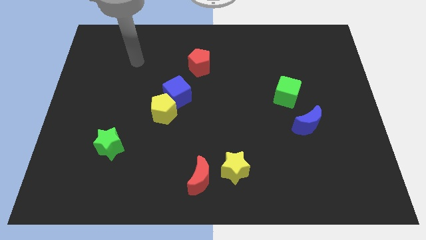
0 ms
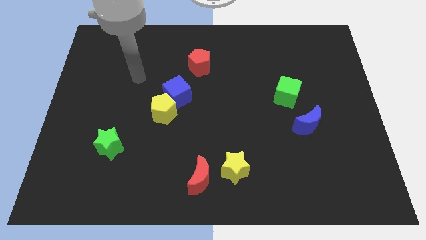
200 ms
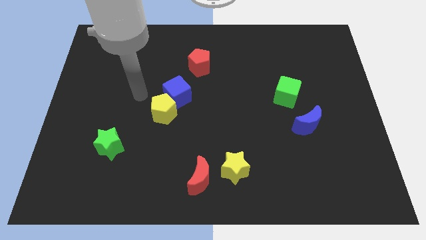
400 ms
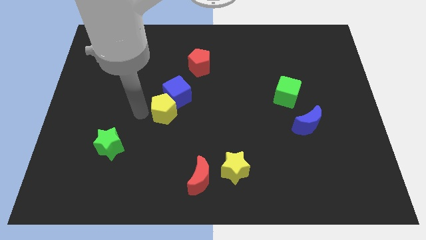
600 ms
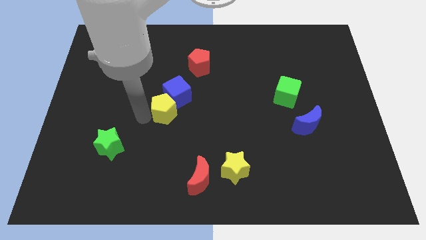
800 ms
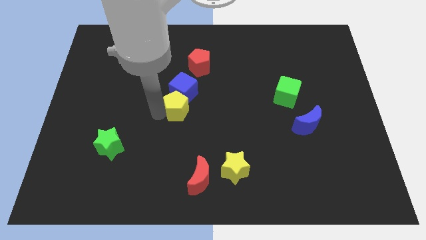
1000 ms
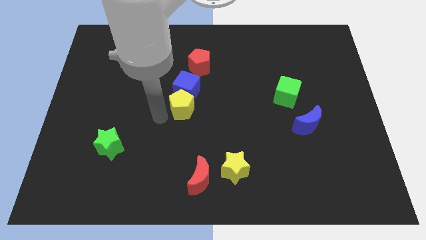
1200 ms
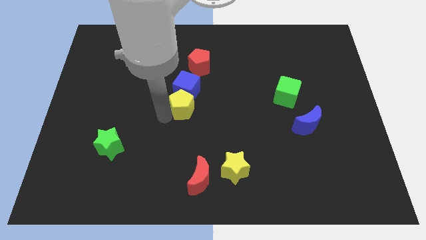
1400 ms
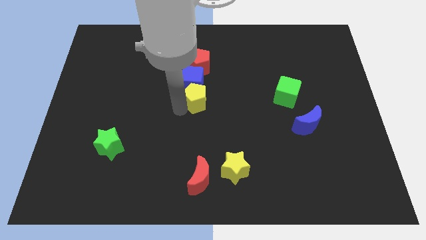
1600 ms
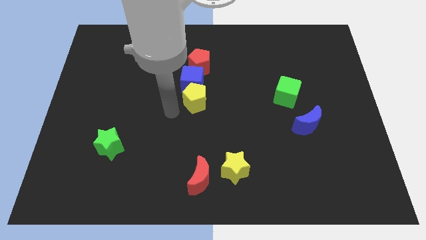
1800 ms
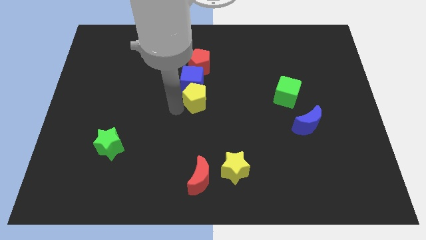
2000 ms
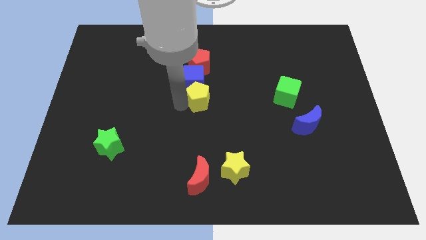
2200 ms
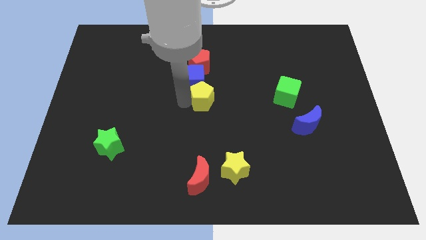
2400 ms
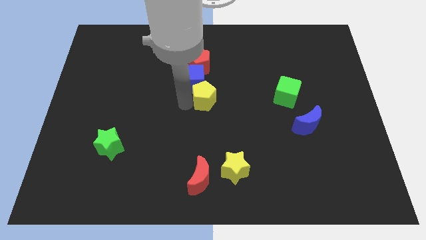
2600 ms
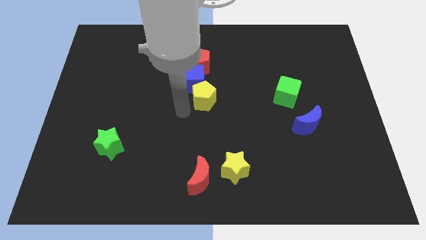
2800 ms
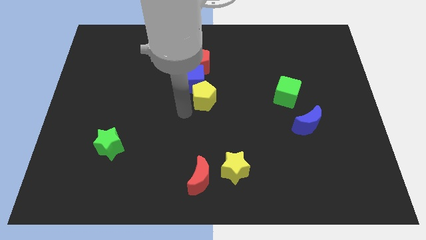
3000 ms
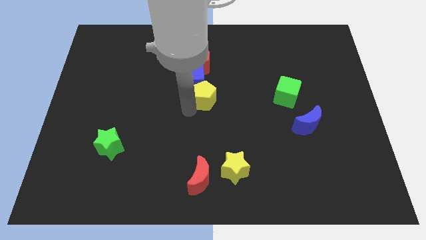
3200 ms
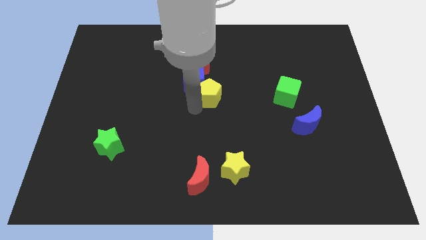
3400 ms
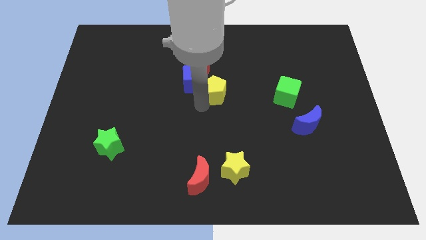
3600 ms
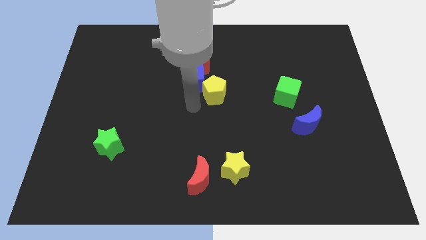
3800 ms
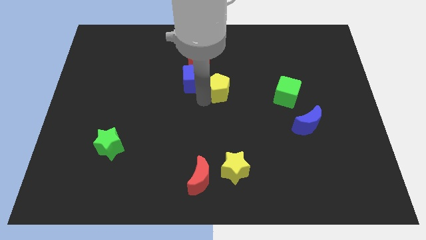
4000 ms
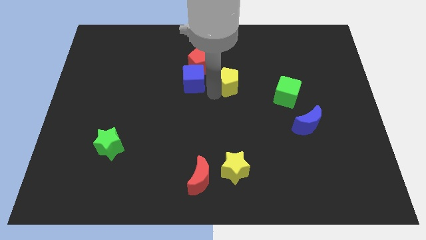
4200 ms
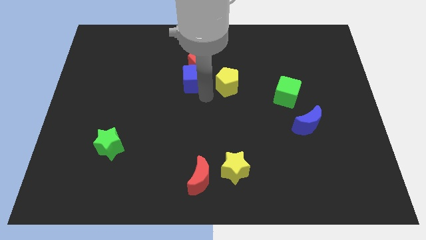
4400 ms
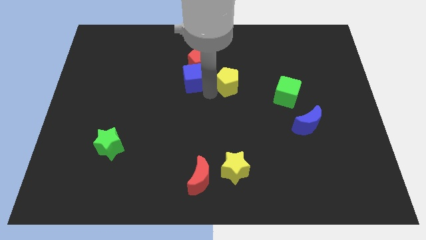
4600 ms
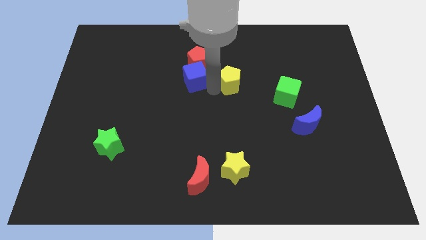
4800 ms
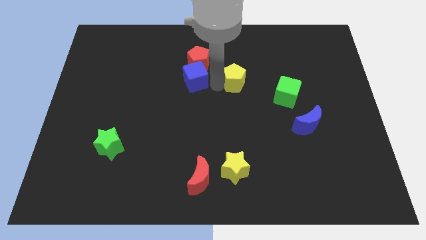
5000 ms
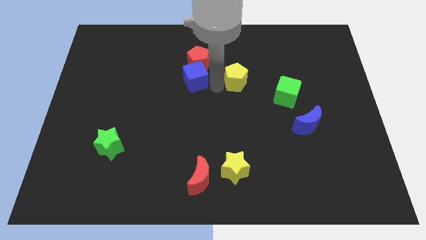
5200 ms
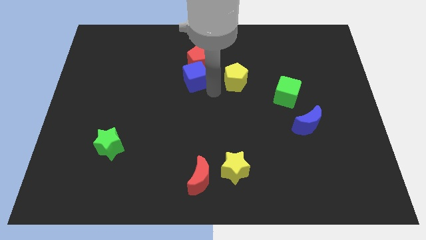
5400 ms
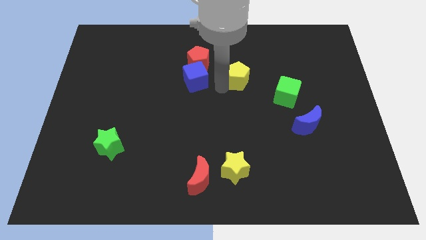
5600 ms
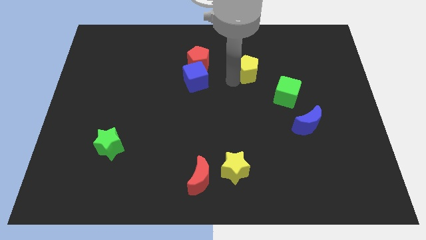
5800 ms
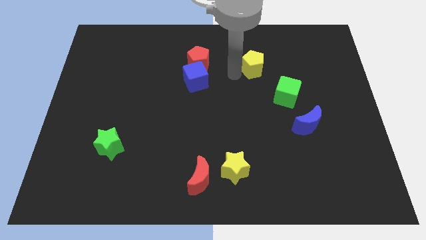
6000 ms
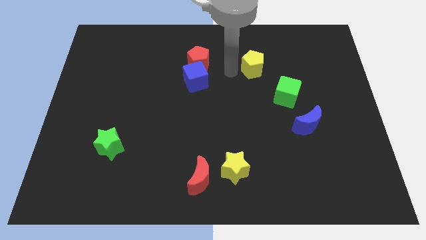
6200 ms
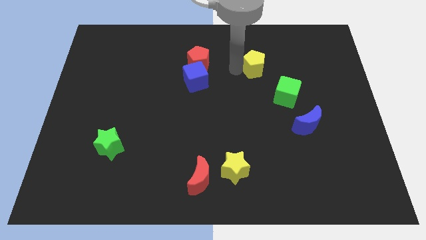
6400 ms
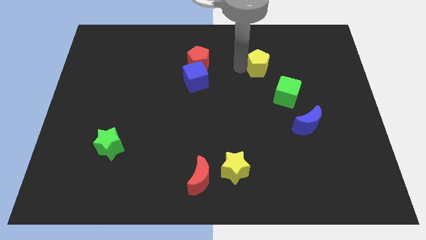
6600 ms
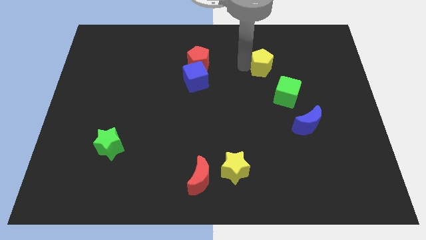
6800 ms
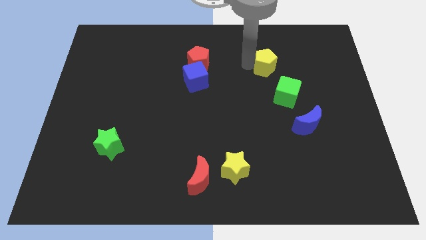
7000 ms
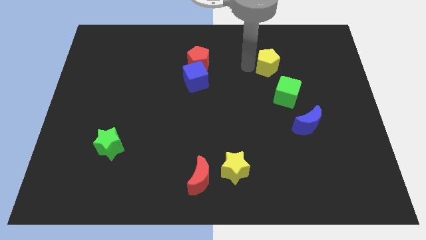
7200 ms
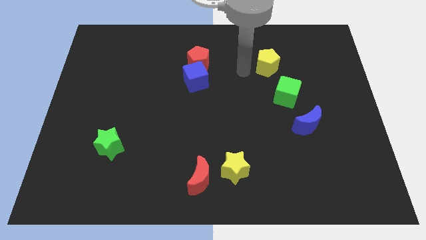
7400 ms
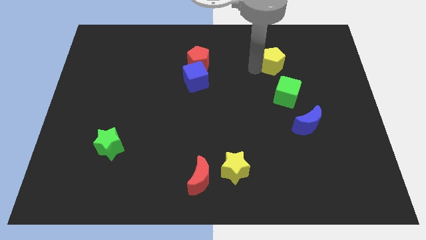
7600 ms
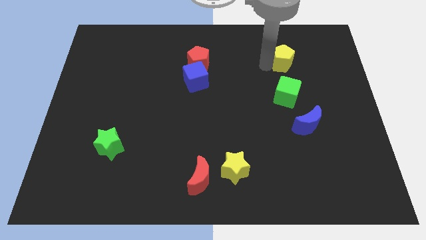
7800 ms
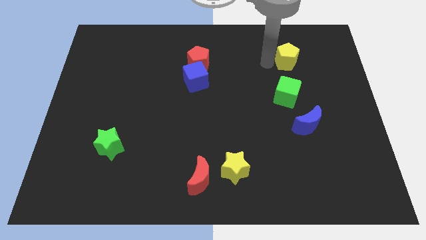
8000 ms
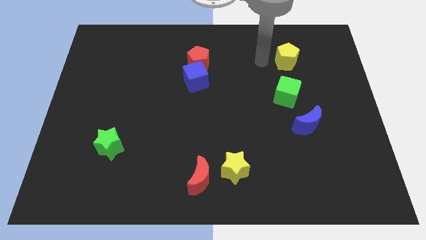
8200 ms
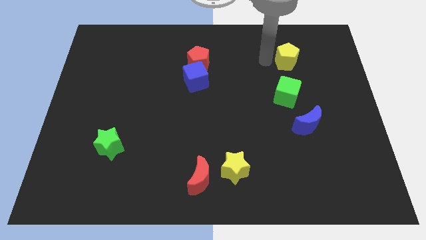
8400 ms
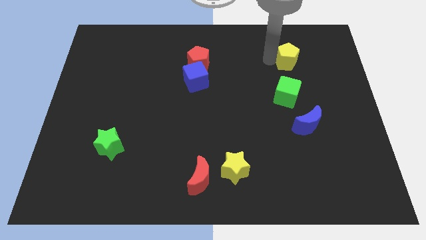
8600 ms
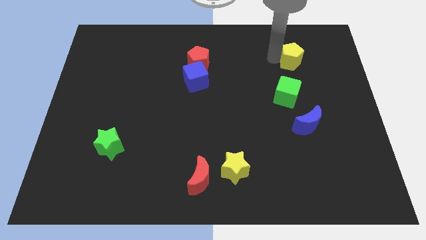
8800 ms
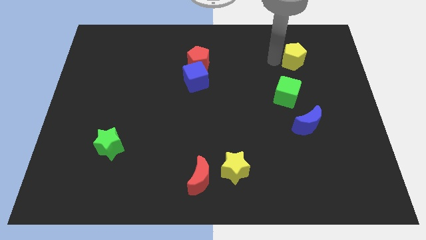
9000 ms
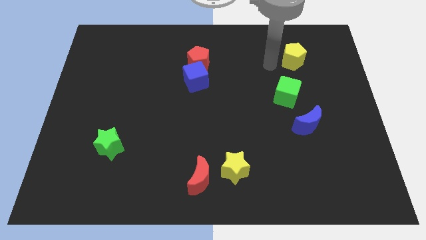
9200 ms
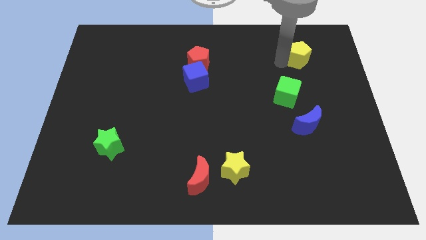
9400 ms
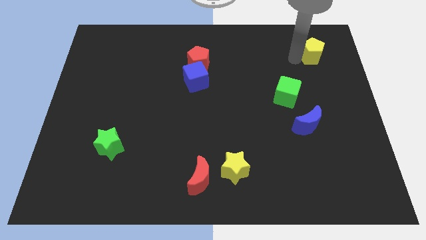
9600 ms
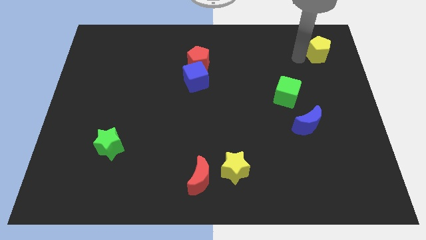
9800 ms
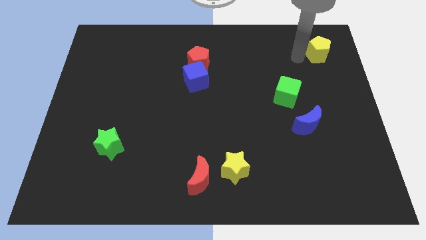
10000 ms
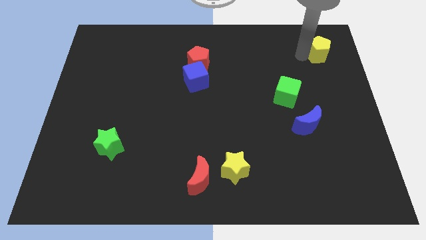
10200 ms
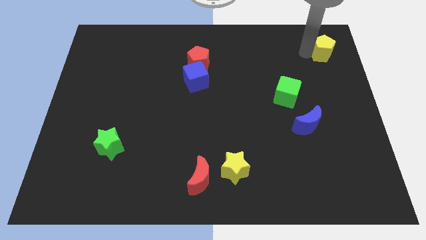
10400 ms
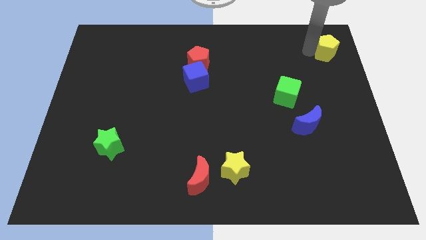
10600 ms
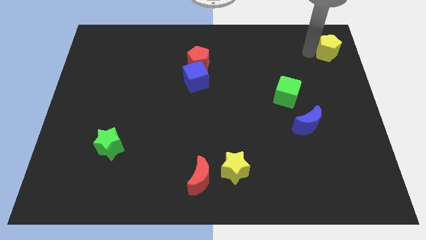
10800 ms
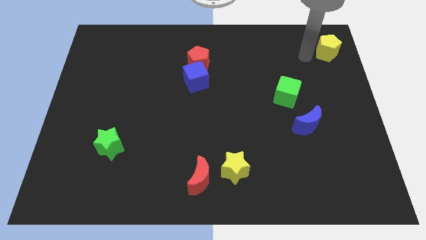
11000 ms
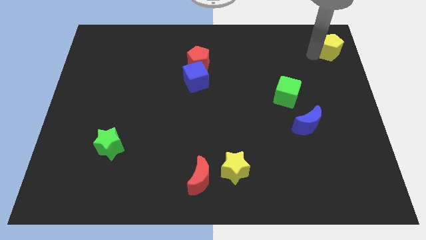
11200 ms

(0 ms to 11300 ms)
push the yellow pentagon to the upper right corner

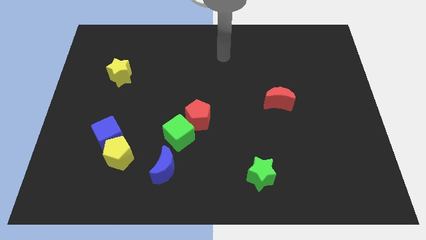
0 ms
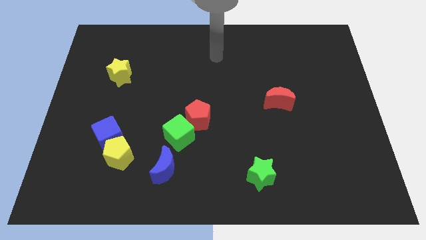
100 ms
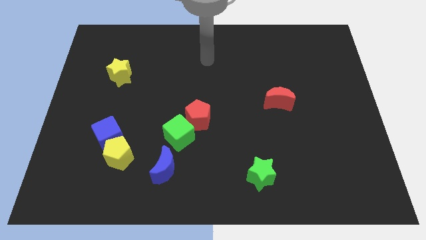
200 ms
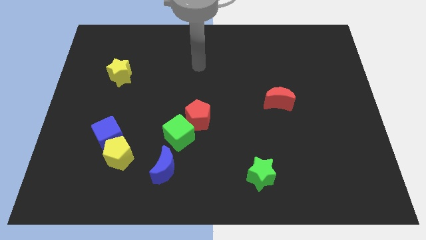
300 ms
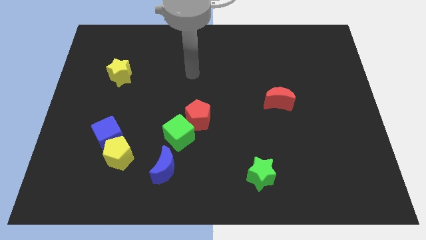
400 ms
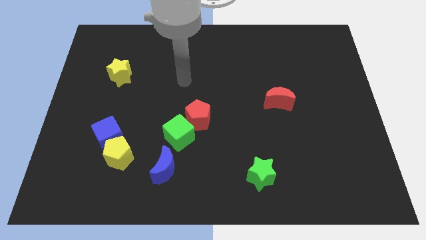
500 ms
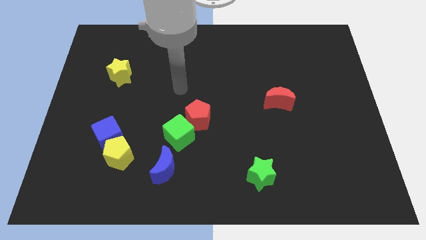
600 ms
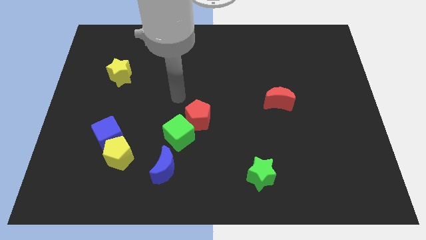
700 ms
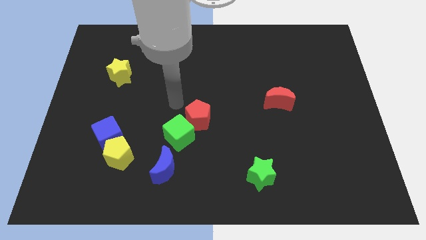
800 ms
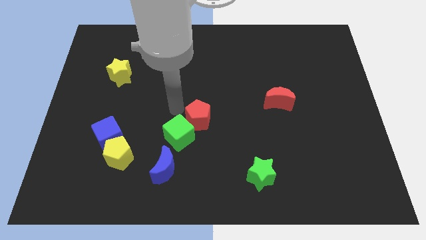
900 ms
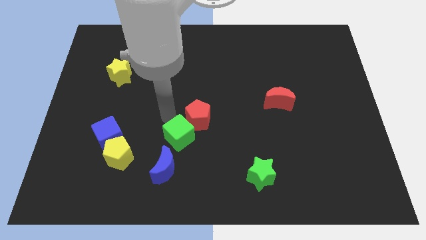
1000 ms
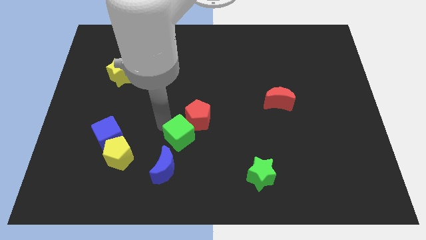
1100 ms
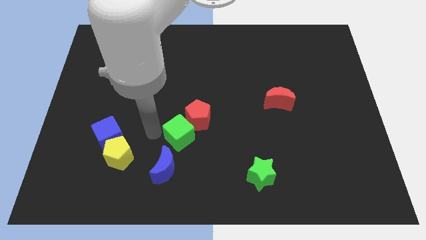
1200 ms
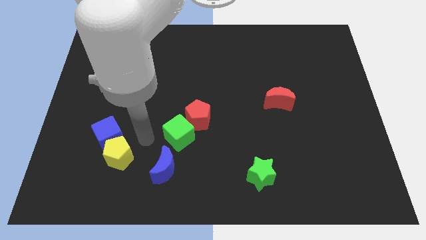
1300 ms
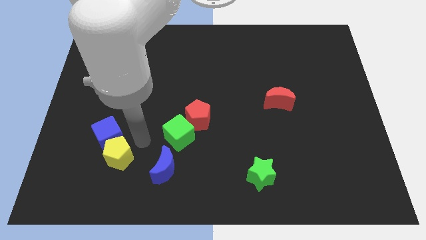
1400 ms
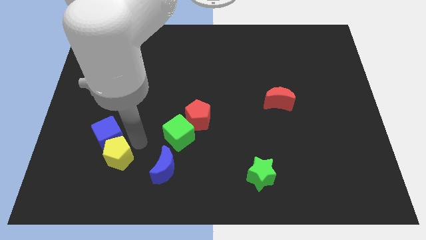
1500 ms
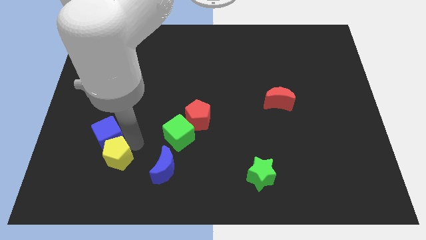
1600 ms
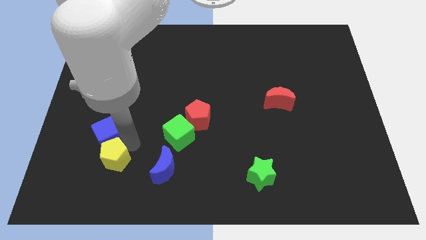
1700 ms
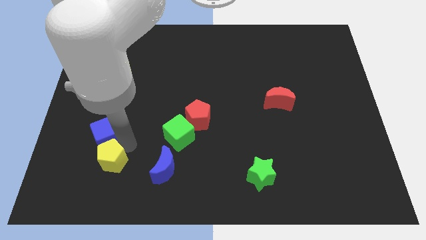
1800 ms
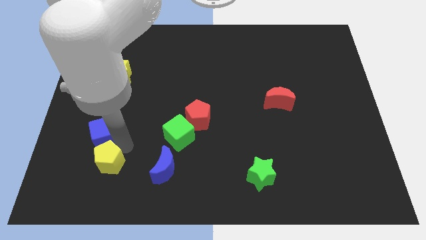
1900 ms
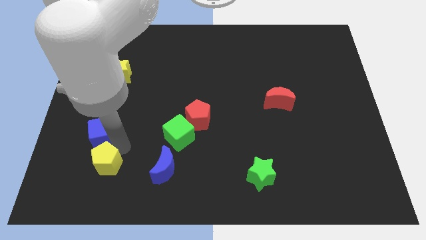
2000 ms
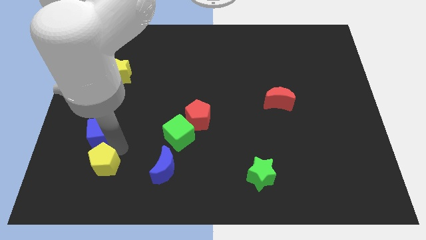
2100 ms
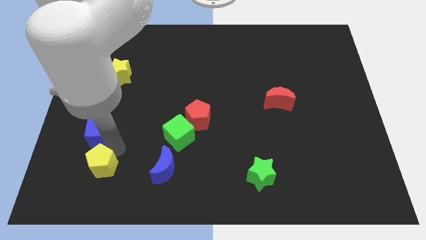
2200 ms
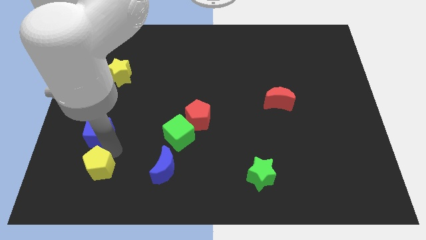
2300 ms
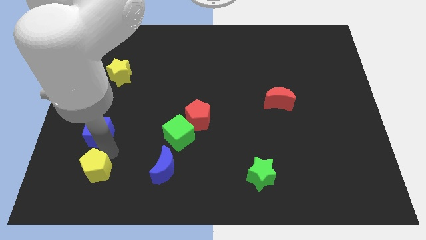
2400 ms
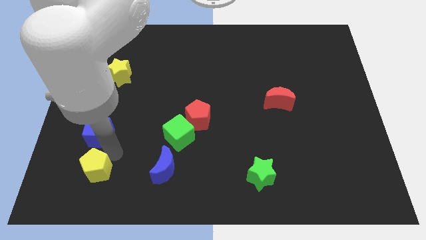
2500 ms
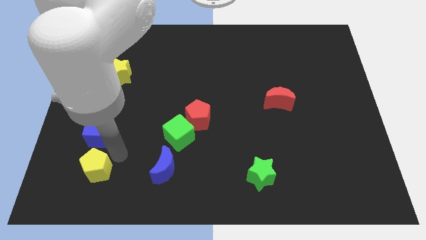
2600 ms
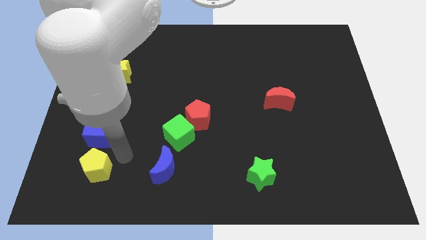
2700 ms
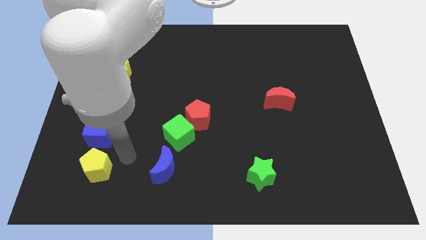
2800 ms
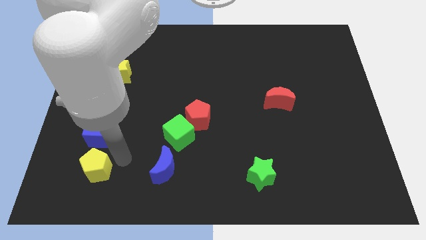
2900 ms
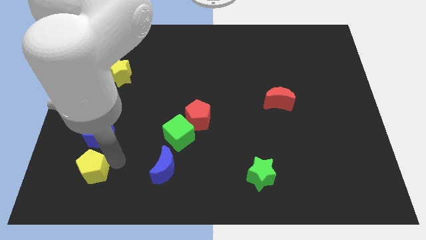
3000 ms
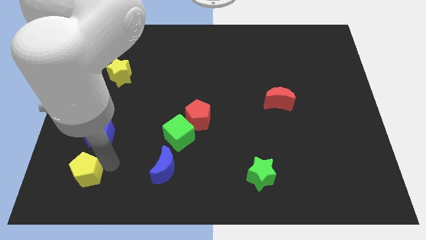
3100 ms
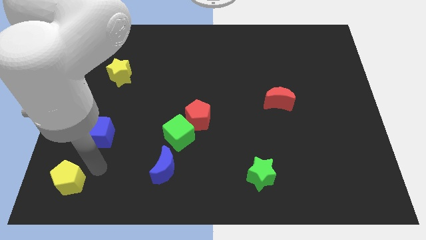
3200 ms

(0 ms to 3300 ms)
push the yellow pentagon to the bottom left
